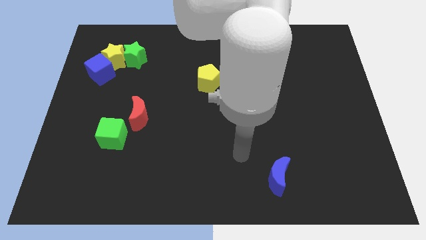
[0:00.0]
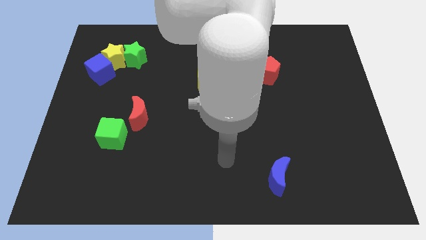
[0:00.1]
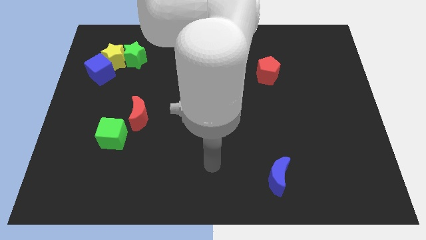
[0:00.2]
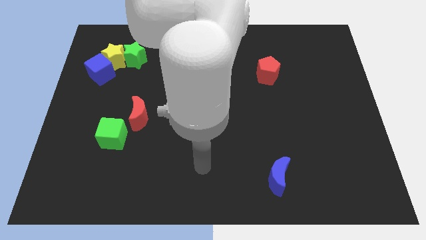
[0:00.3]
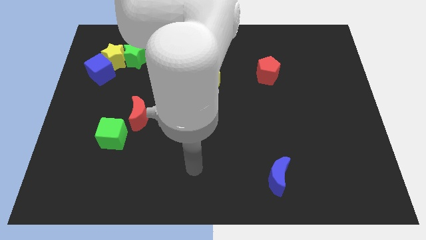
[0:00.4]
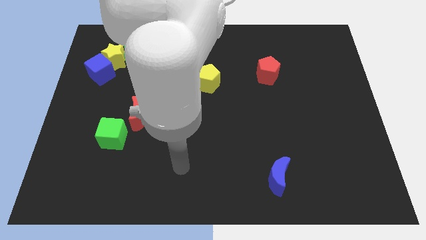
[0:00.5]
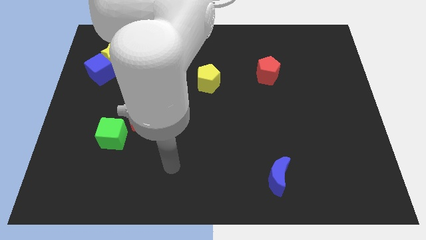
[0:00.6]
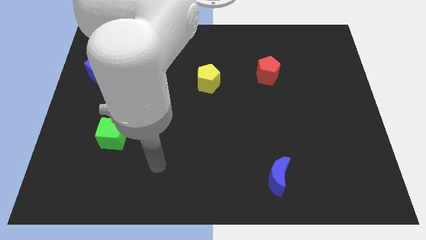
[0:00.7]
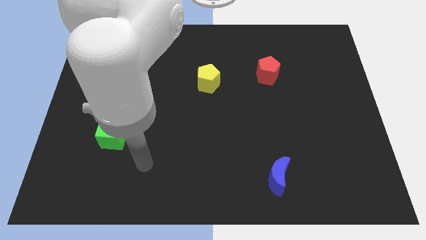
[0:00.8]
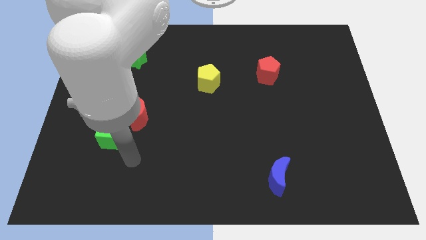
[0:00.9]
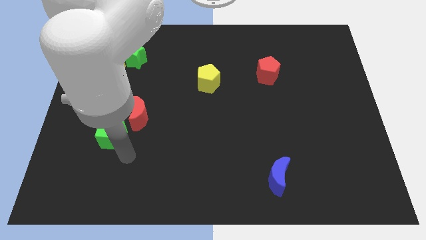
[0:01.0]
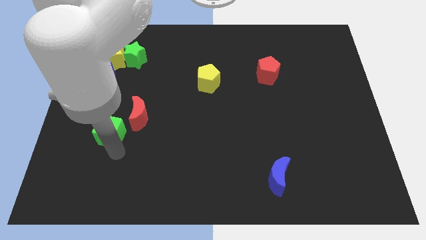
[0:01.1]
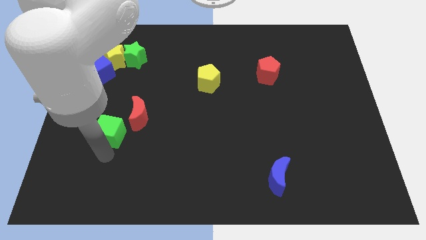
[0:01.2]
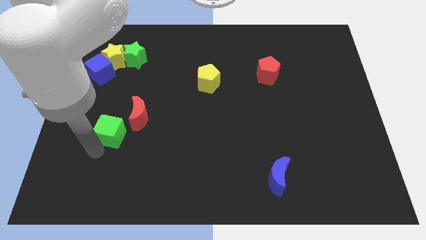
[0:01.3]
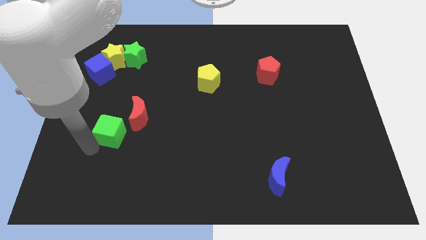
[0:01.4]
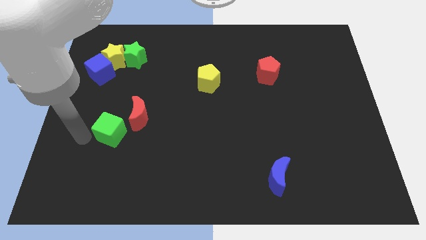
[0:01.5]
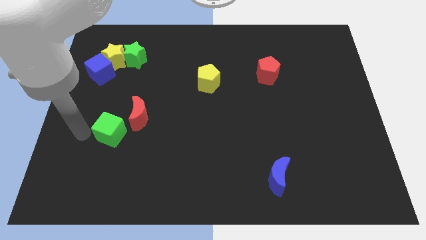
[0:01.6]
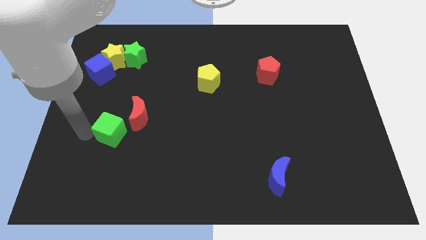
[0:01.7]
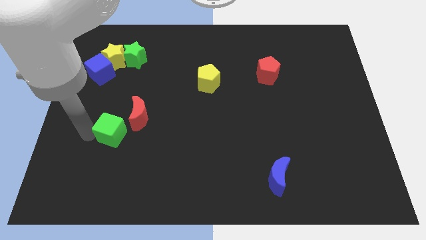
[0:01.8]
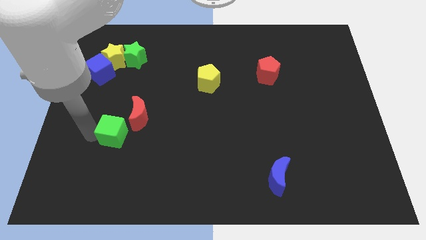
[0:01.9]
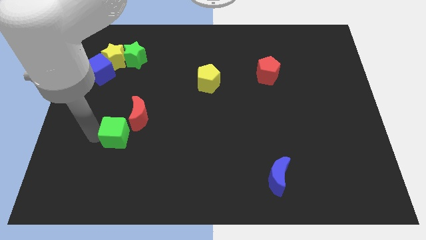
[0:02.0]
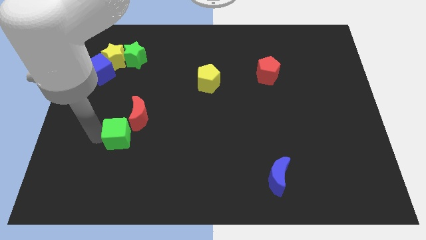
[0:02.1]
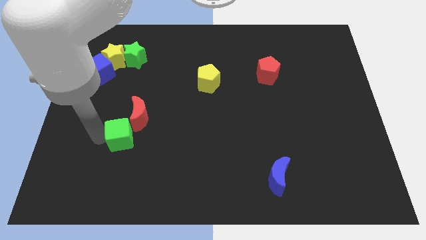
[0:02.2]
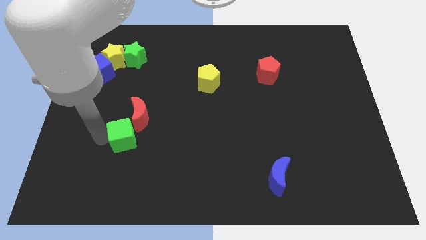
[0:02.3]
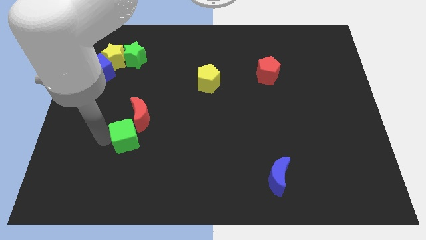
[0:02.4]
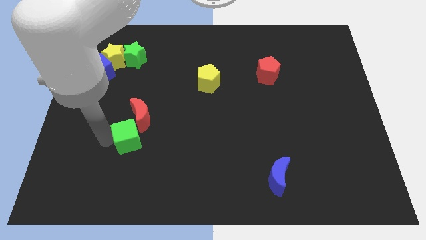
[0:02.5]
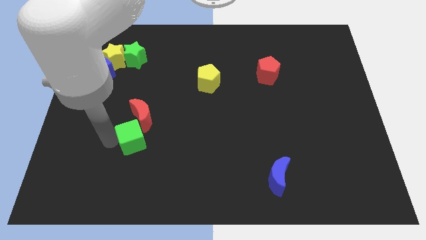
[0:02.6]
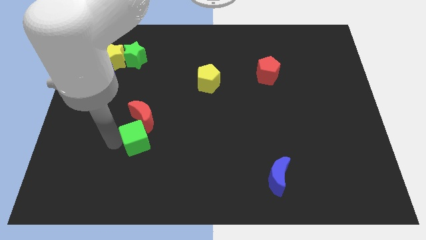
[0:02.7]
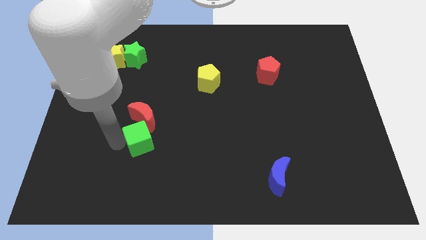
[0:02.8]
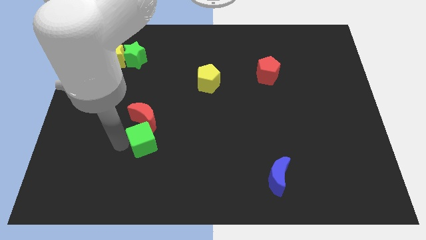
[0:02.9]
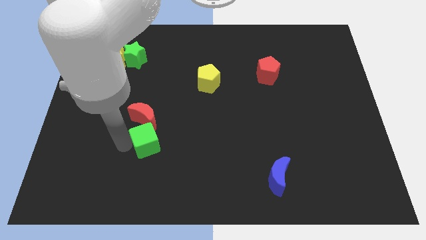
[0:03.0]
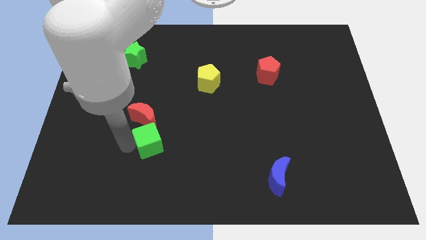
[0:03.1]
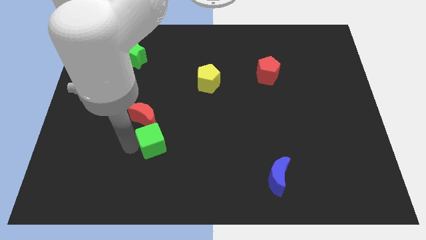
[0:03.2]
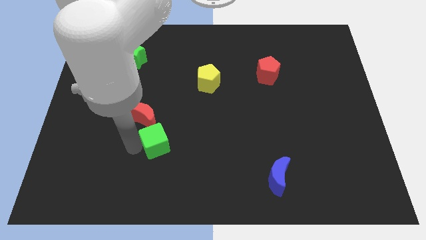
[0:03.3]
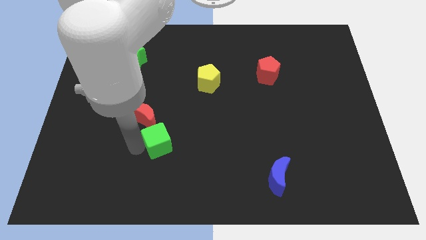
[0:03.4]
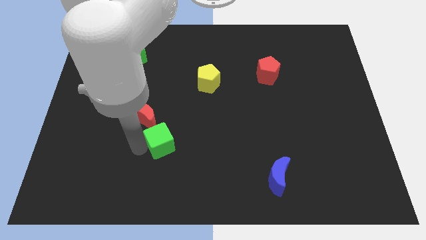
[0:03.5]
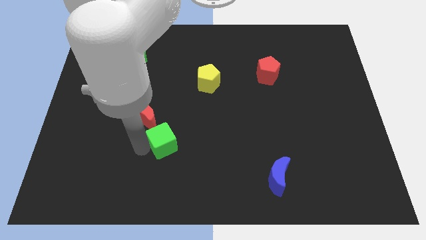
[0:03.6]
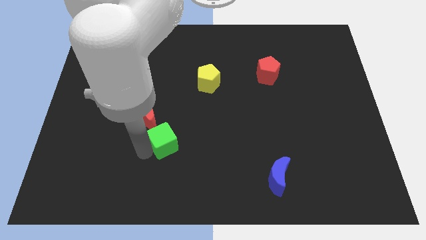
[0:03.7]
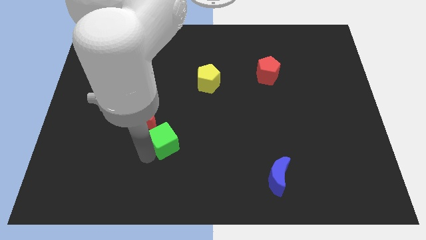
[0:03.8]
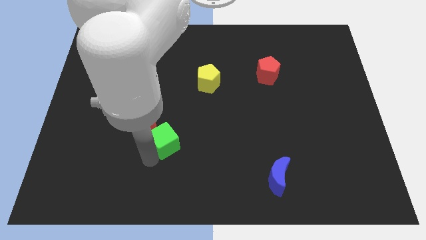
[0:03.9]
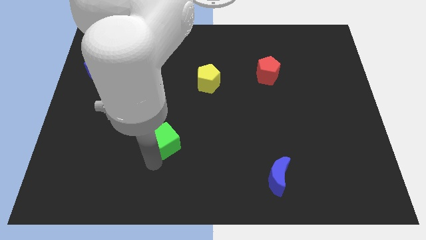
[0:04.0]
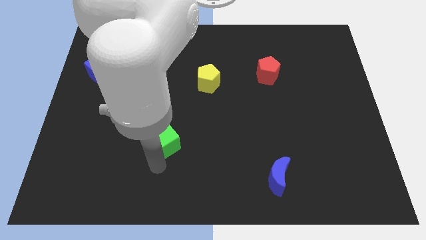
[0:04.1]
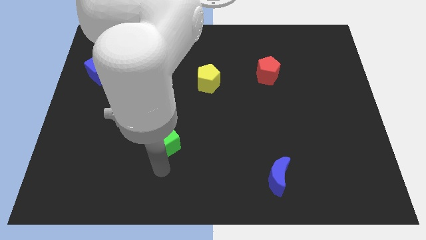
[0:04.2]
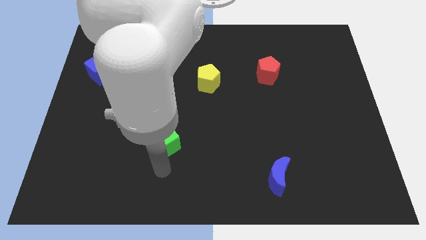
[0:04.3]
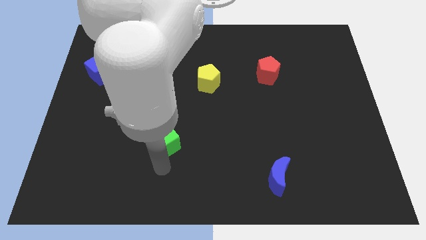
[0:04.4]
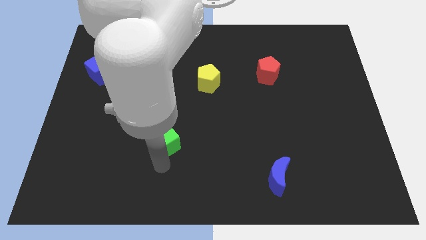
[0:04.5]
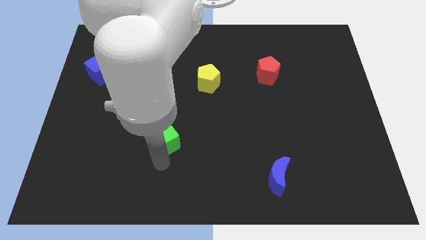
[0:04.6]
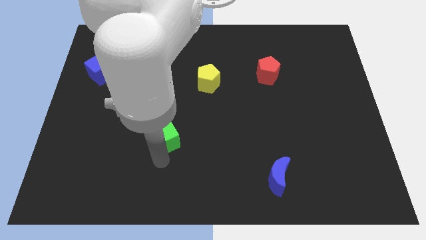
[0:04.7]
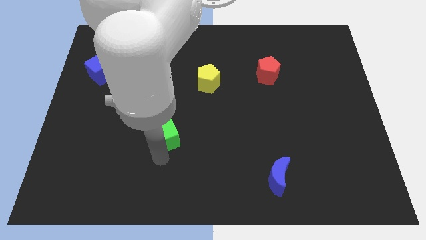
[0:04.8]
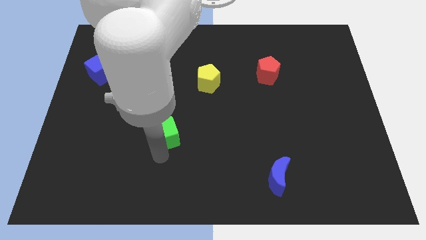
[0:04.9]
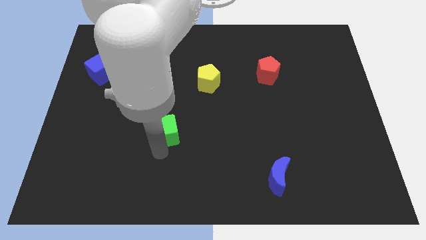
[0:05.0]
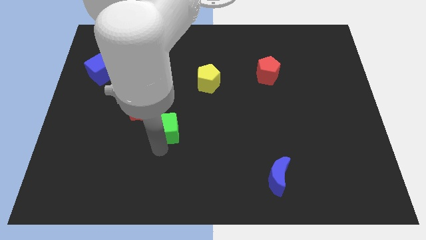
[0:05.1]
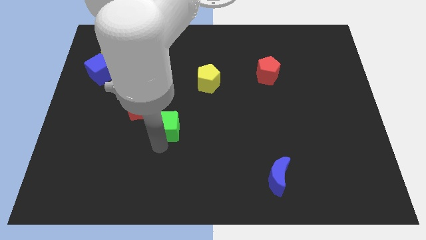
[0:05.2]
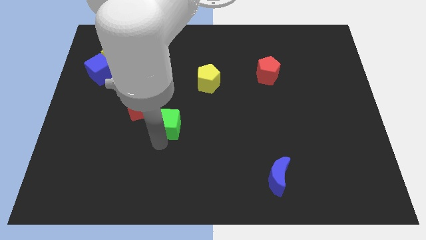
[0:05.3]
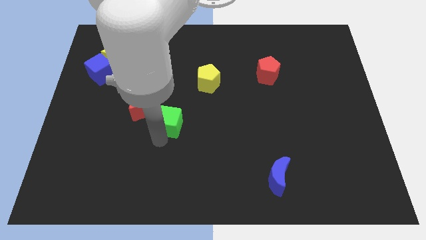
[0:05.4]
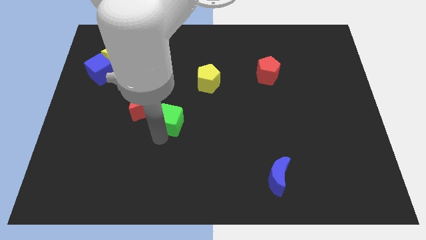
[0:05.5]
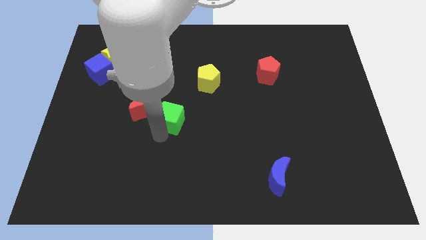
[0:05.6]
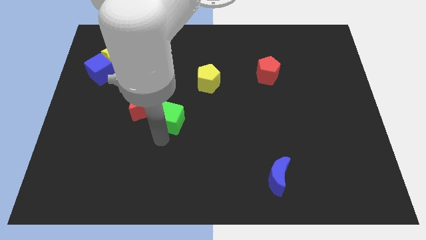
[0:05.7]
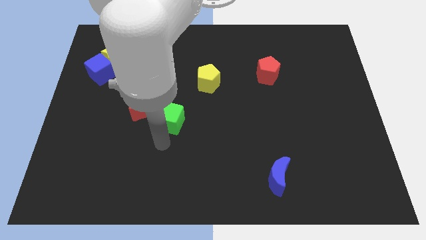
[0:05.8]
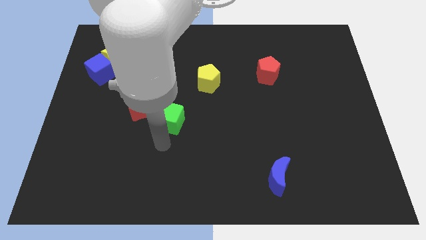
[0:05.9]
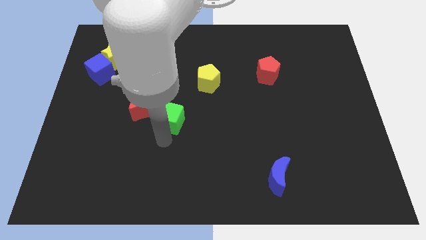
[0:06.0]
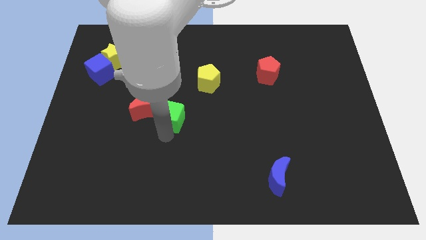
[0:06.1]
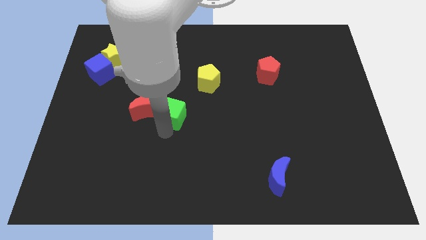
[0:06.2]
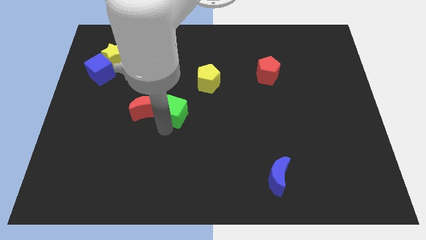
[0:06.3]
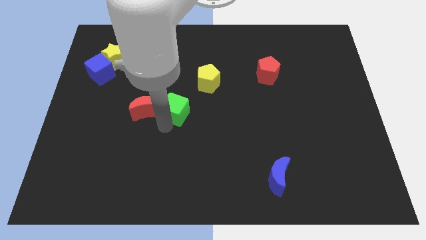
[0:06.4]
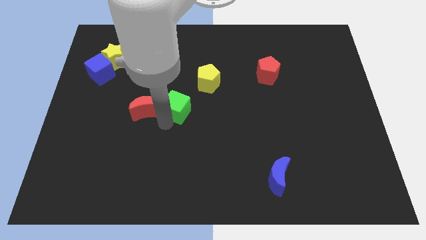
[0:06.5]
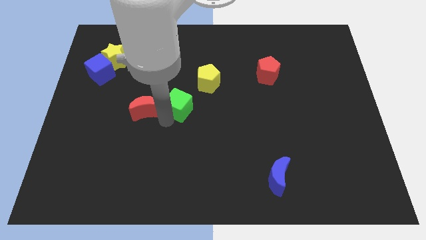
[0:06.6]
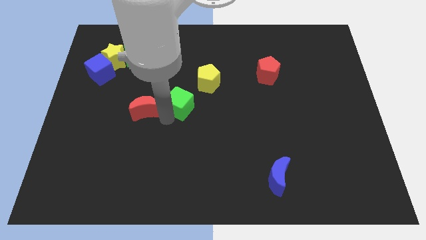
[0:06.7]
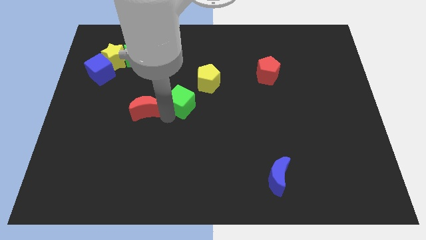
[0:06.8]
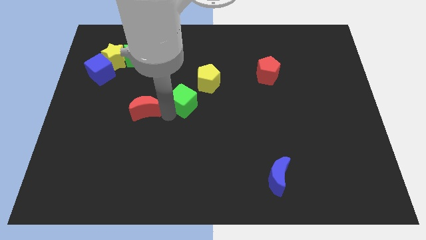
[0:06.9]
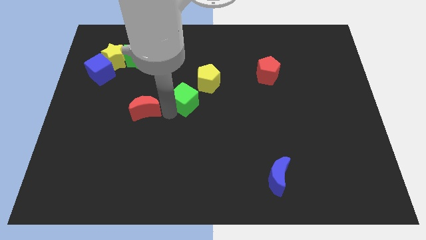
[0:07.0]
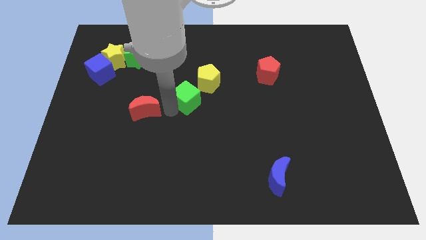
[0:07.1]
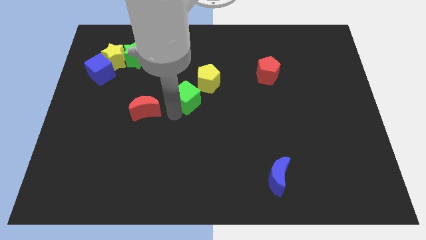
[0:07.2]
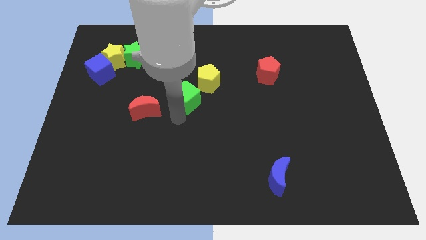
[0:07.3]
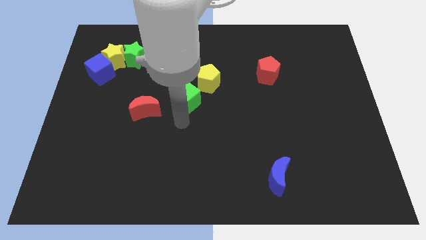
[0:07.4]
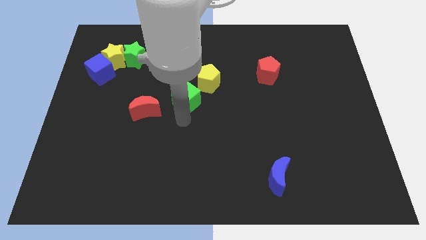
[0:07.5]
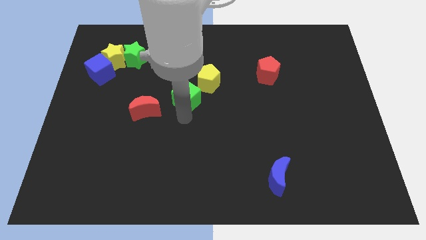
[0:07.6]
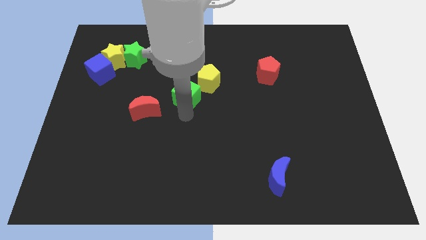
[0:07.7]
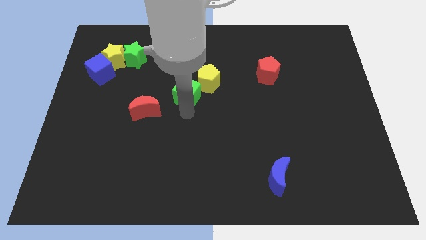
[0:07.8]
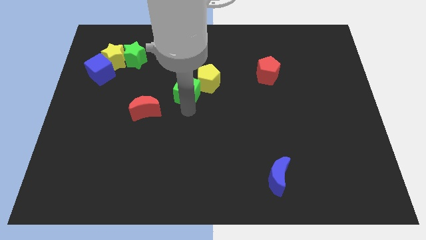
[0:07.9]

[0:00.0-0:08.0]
push the green cube up and then right

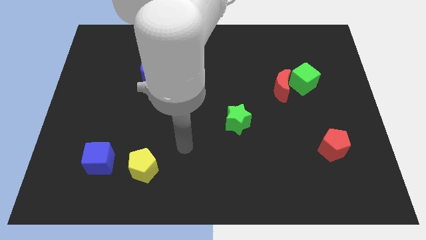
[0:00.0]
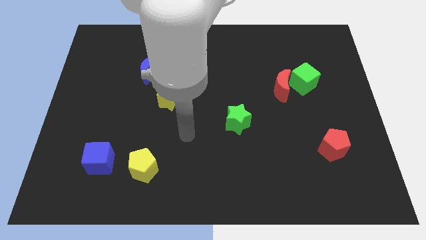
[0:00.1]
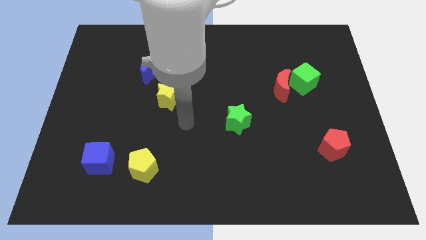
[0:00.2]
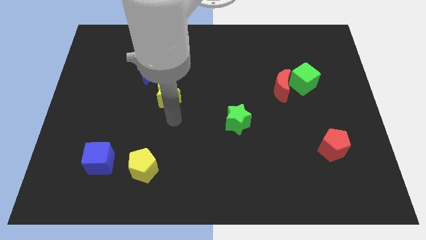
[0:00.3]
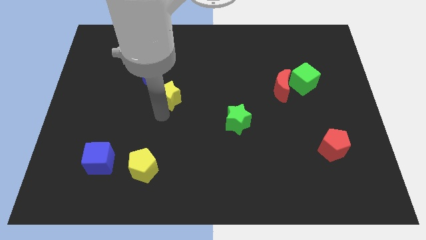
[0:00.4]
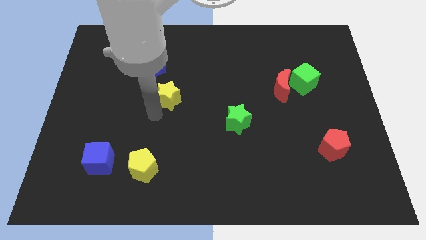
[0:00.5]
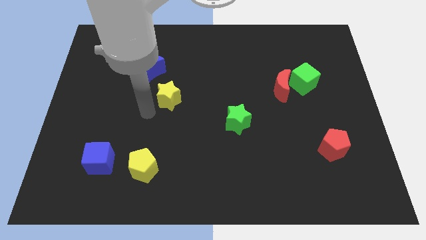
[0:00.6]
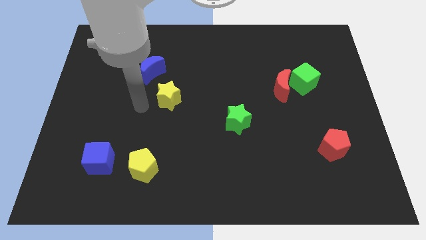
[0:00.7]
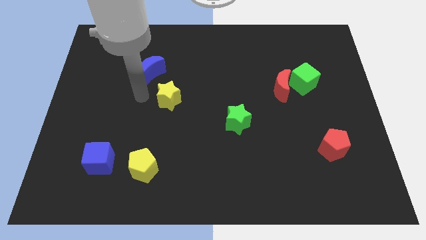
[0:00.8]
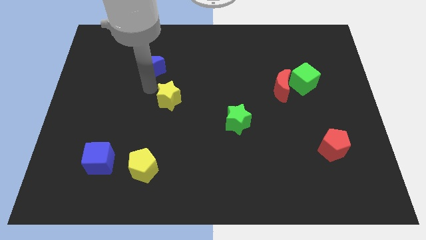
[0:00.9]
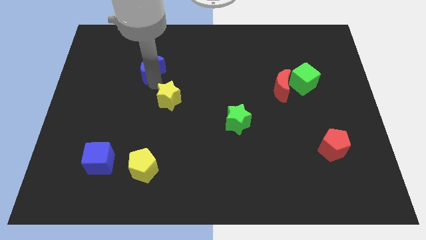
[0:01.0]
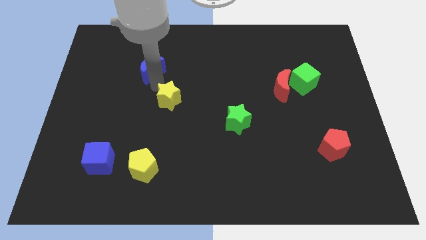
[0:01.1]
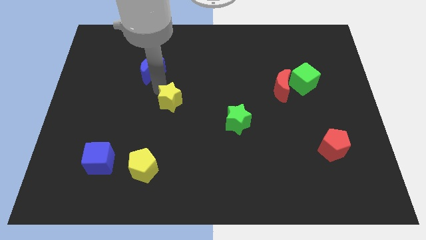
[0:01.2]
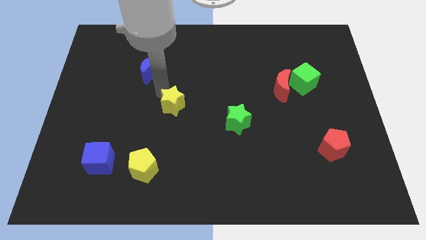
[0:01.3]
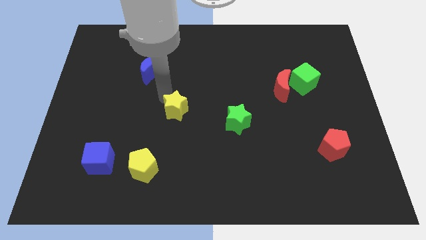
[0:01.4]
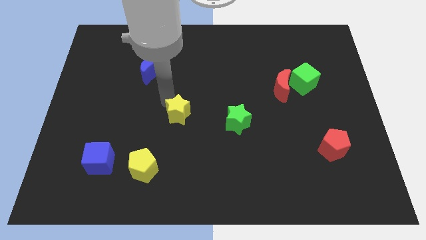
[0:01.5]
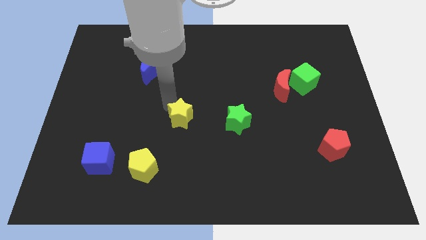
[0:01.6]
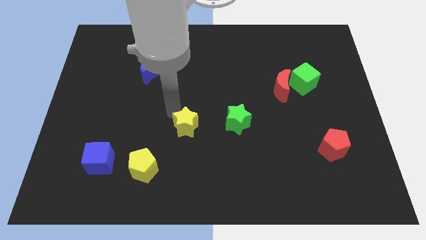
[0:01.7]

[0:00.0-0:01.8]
slightly push the yellow star diagonally down and to the right
